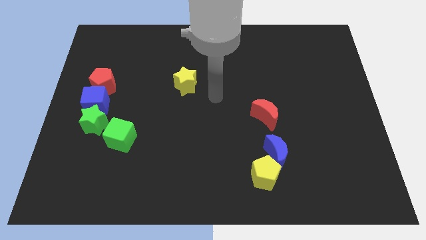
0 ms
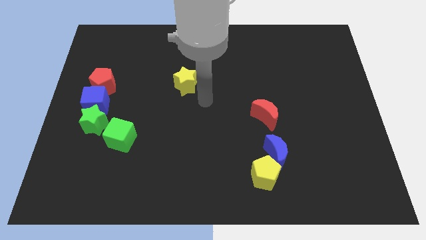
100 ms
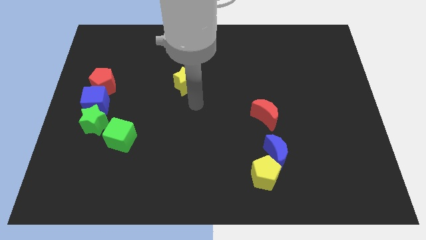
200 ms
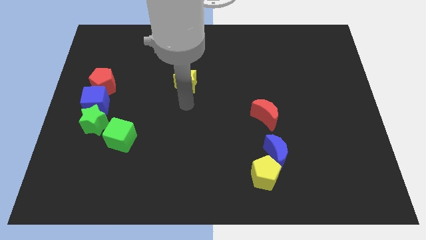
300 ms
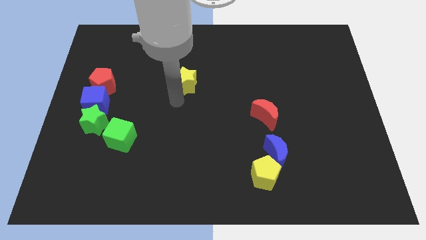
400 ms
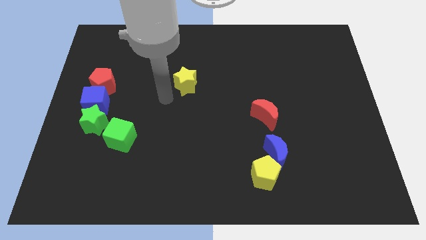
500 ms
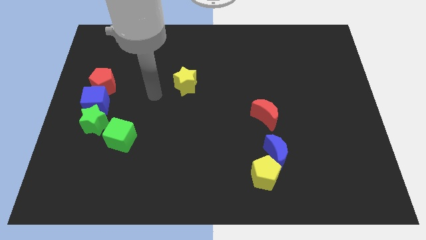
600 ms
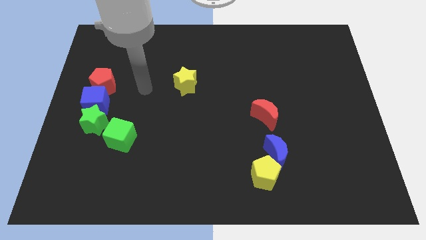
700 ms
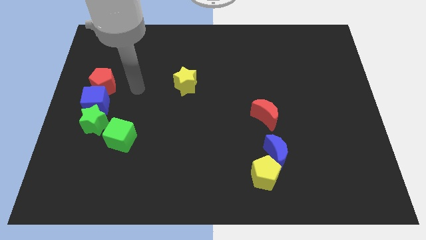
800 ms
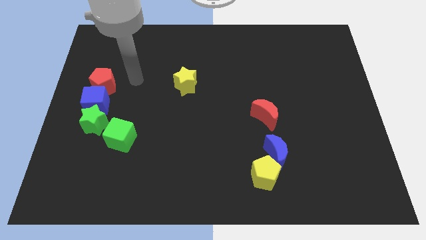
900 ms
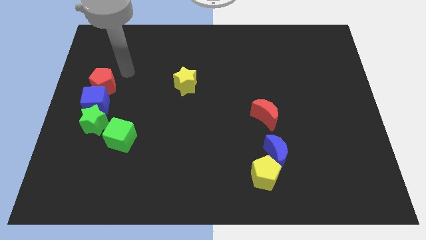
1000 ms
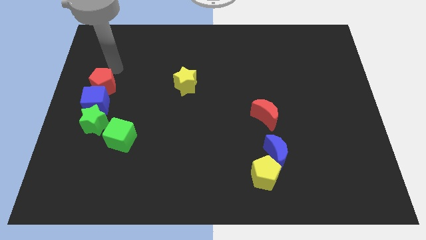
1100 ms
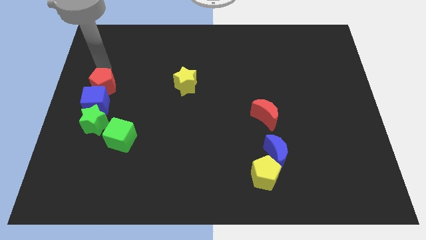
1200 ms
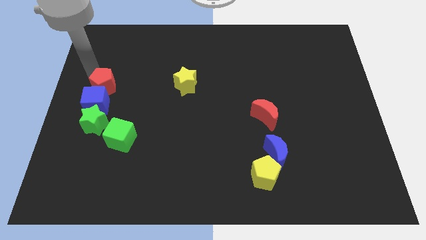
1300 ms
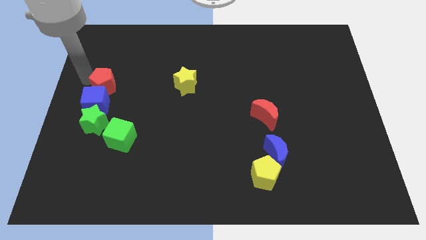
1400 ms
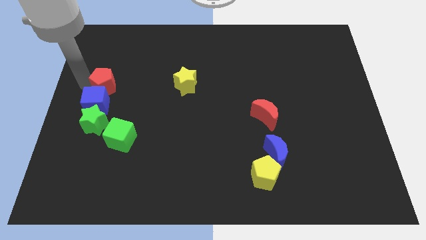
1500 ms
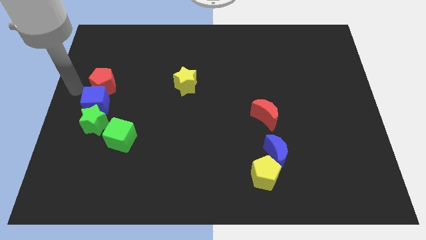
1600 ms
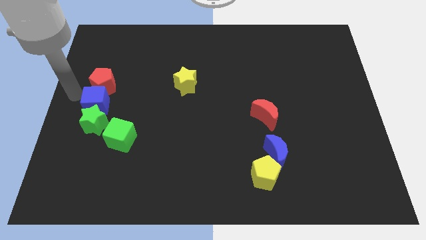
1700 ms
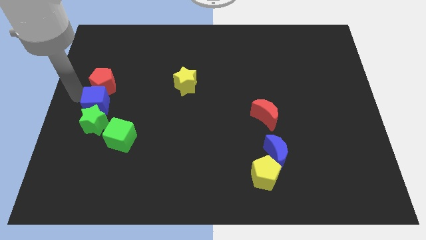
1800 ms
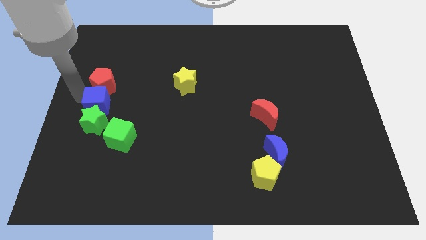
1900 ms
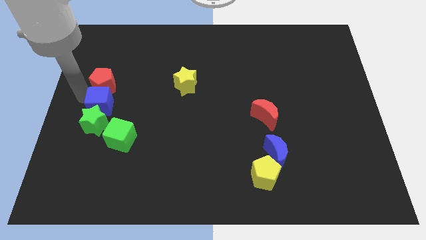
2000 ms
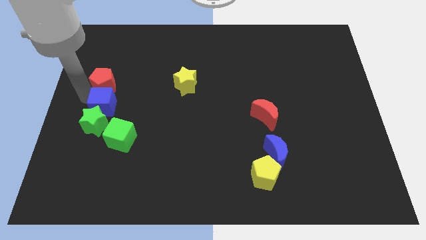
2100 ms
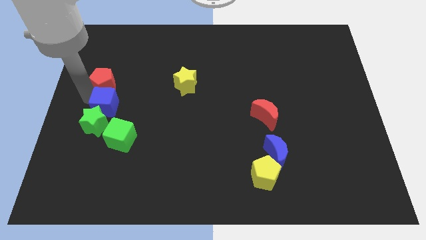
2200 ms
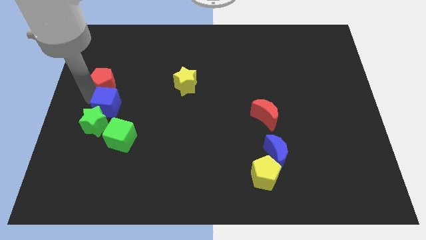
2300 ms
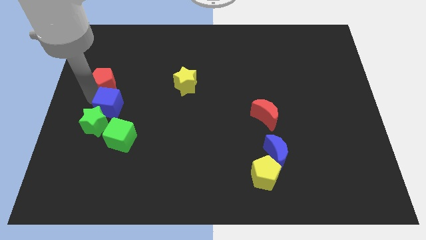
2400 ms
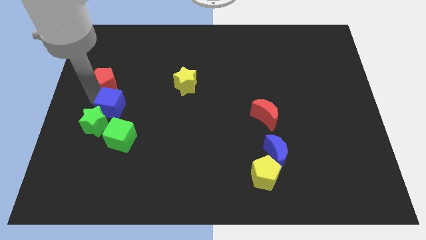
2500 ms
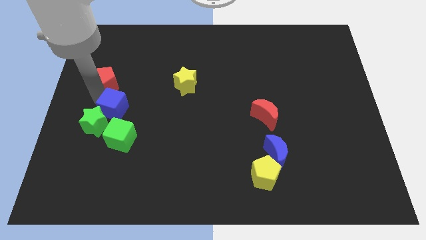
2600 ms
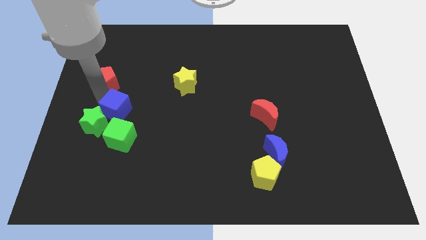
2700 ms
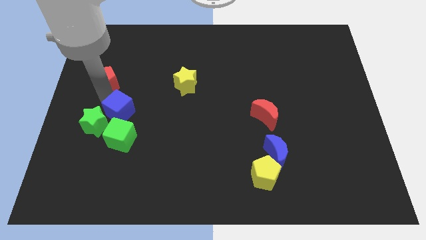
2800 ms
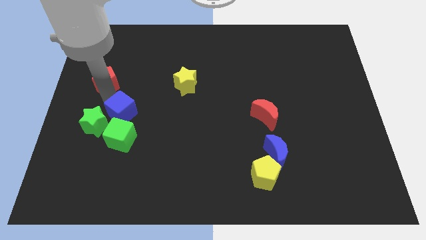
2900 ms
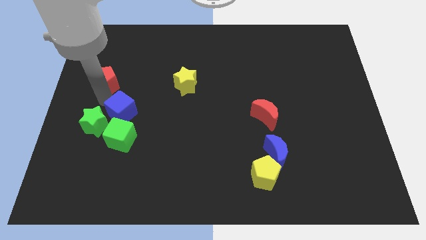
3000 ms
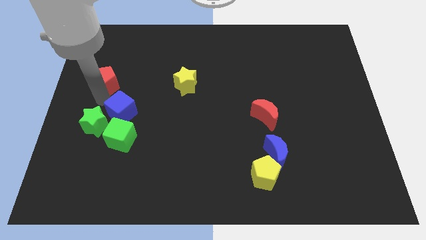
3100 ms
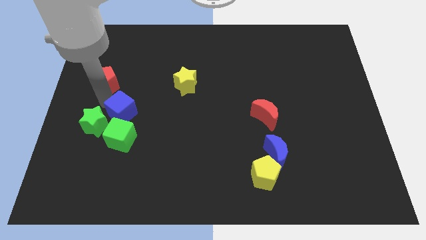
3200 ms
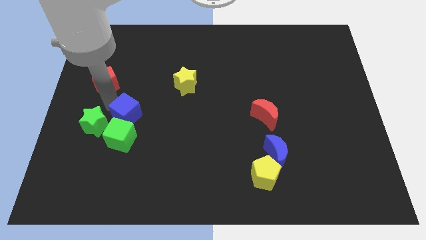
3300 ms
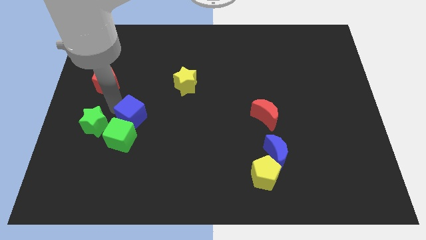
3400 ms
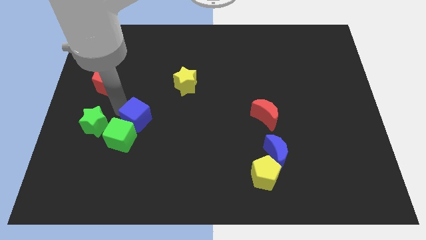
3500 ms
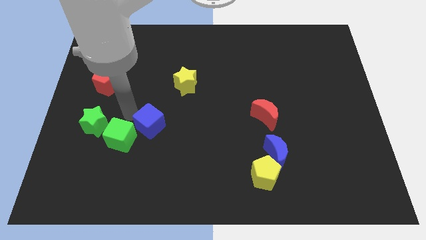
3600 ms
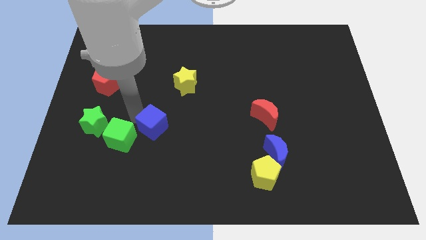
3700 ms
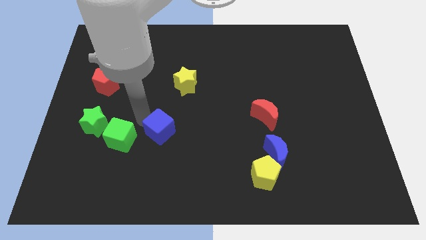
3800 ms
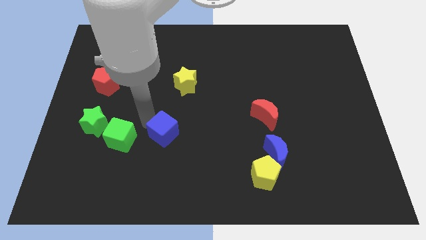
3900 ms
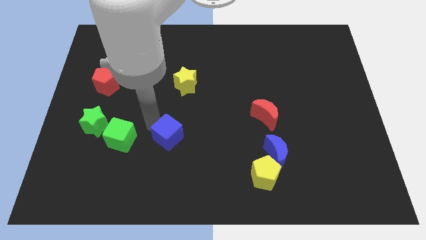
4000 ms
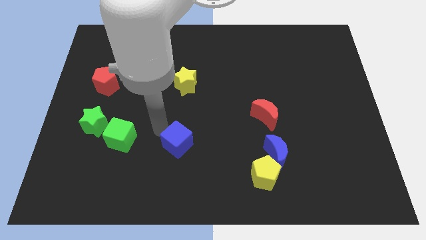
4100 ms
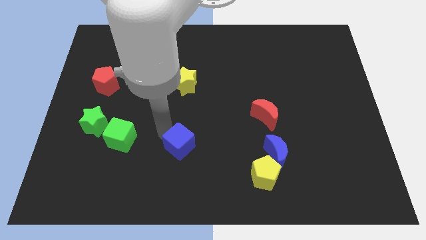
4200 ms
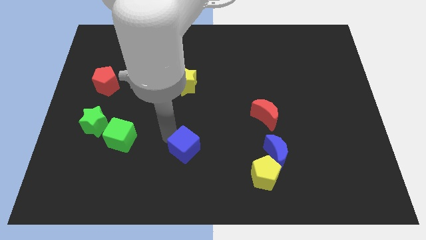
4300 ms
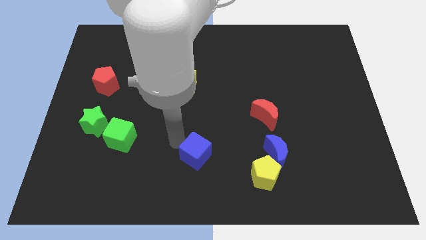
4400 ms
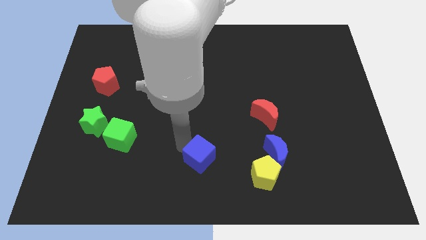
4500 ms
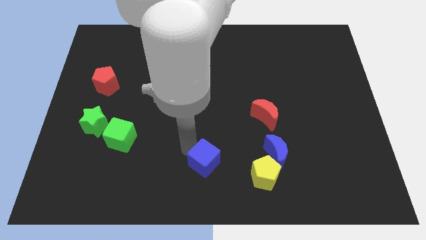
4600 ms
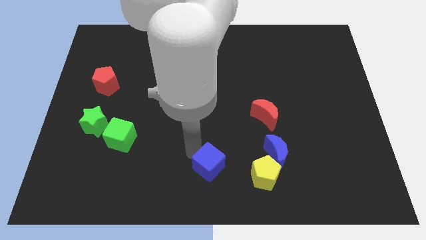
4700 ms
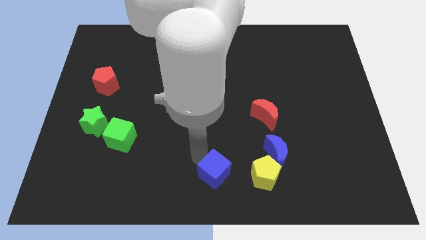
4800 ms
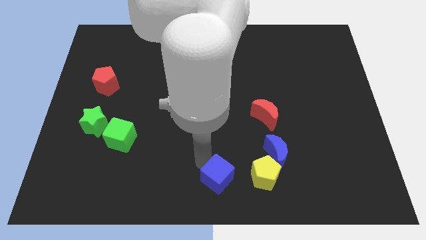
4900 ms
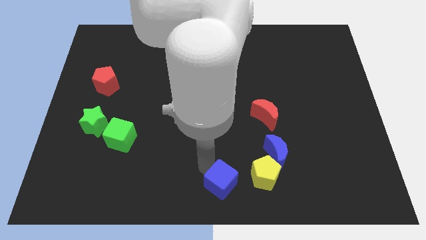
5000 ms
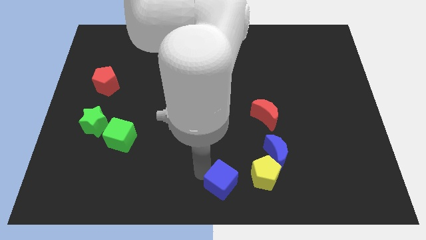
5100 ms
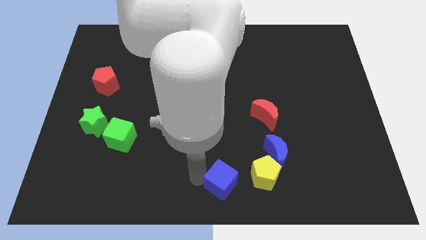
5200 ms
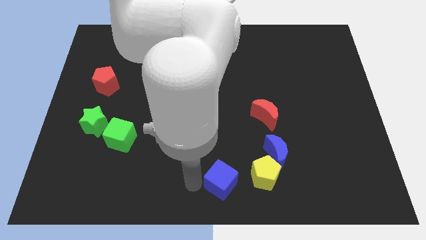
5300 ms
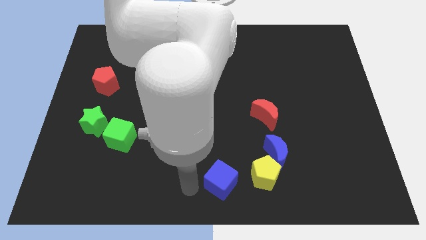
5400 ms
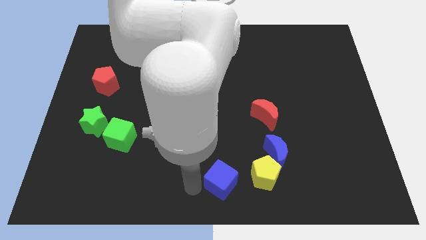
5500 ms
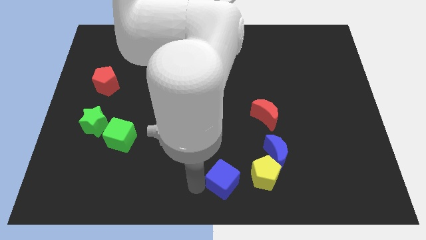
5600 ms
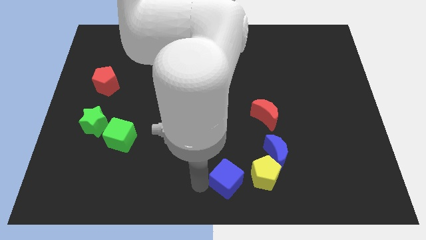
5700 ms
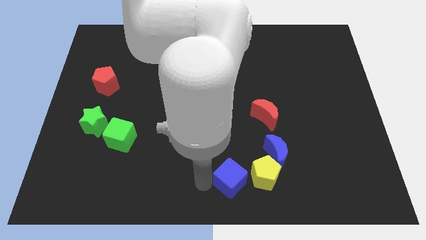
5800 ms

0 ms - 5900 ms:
move the blue cube to the bottom left side of the blue moon

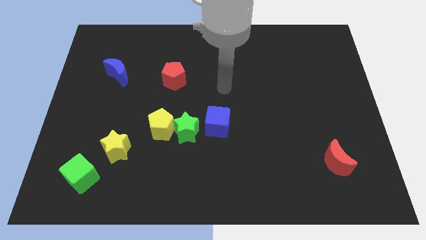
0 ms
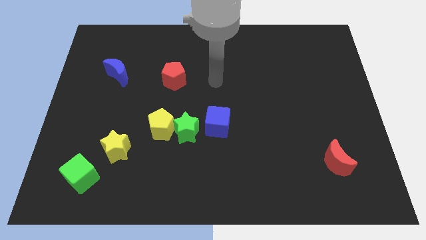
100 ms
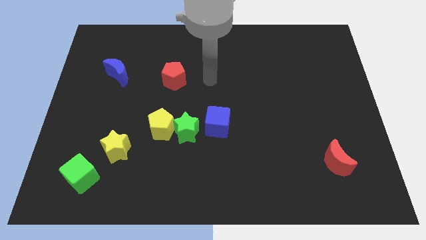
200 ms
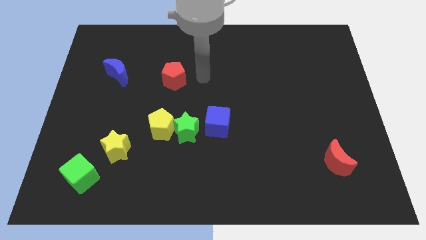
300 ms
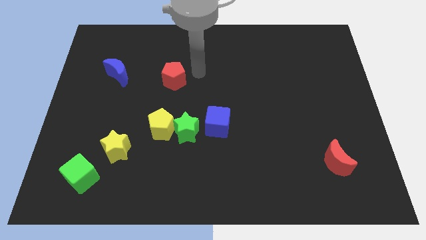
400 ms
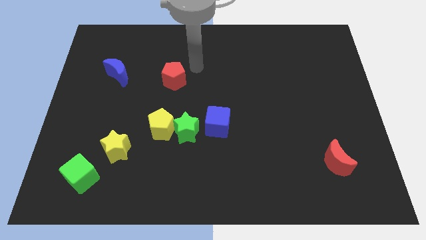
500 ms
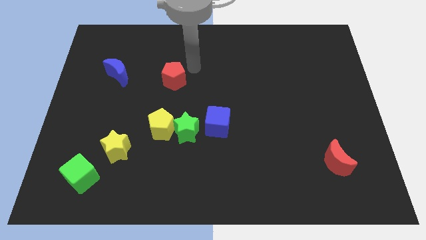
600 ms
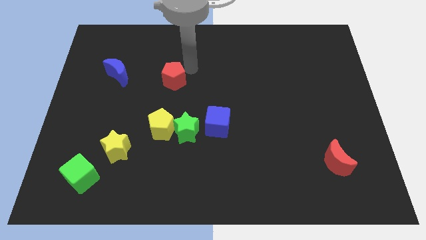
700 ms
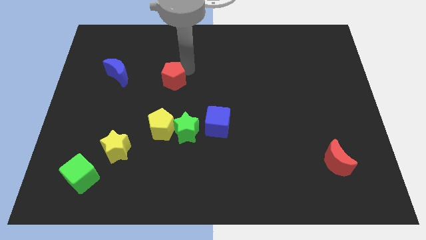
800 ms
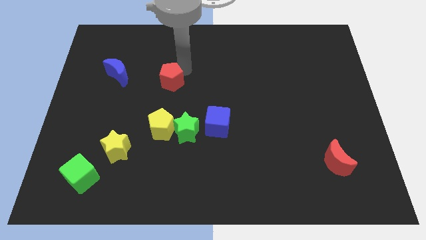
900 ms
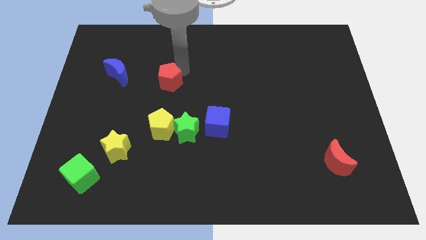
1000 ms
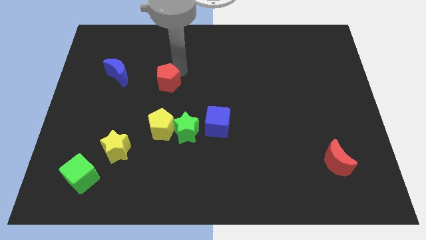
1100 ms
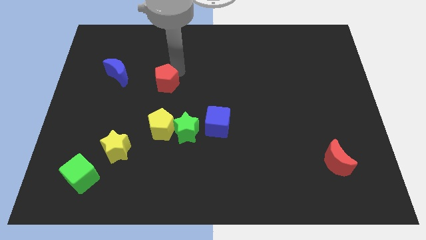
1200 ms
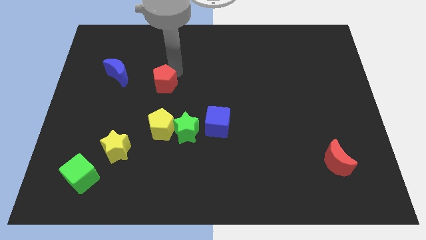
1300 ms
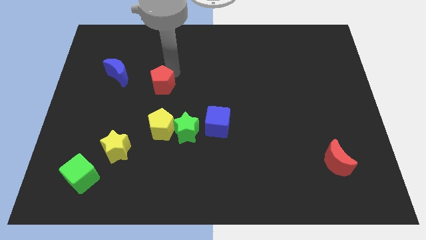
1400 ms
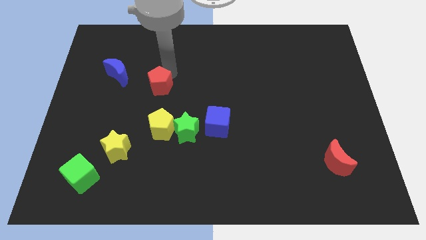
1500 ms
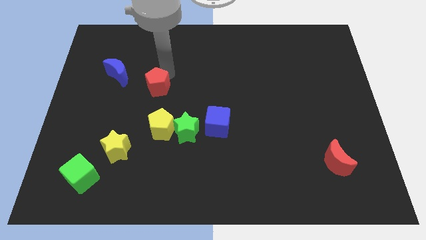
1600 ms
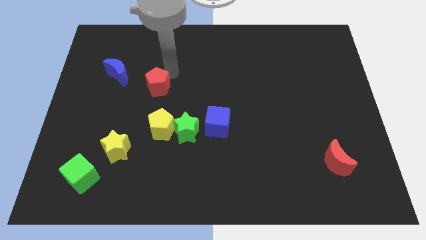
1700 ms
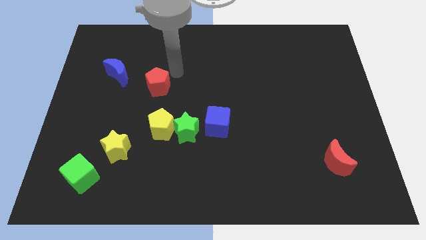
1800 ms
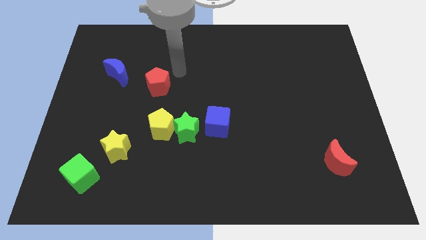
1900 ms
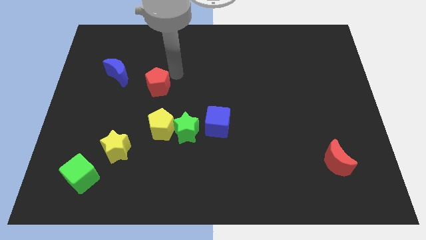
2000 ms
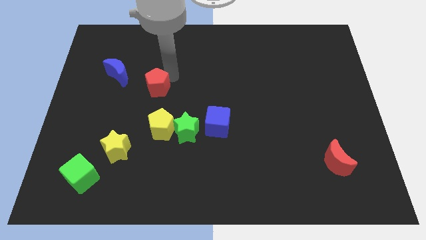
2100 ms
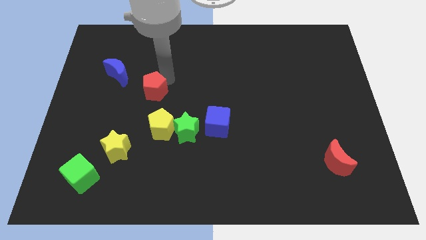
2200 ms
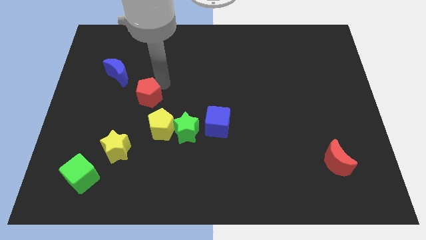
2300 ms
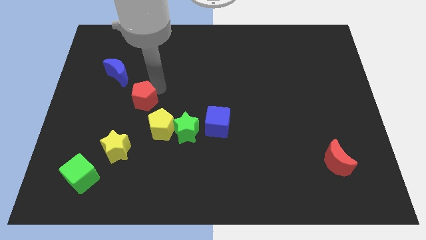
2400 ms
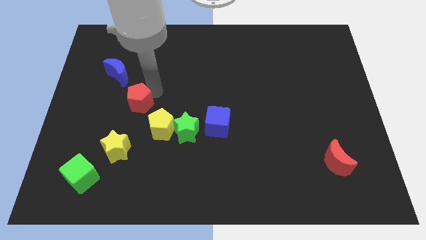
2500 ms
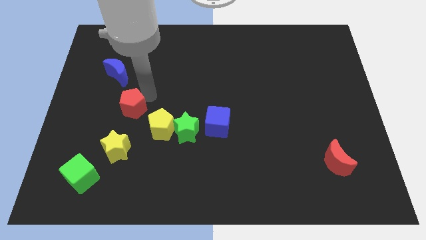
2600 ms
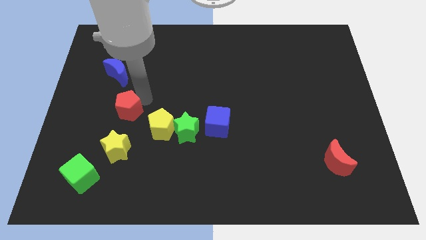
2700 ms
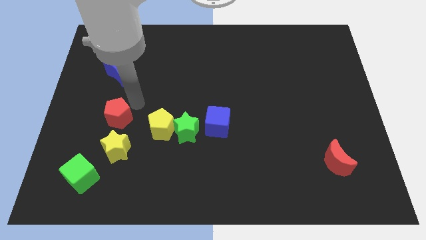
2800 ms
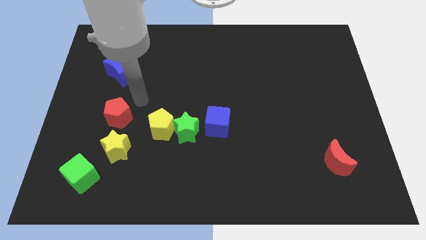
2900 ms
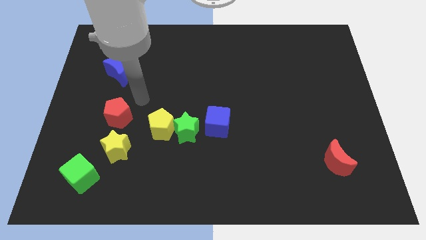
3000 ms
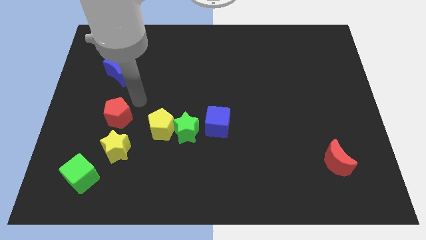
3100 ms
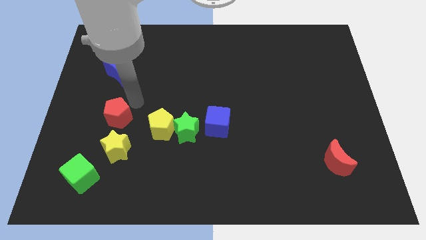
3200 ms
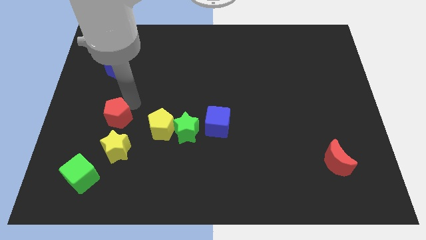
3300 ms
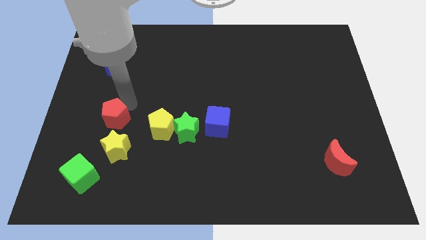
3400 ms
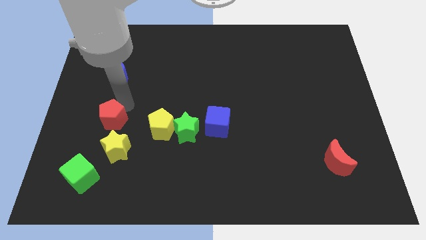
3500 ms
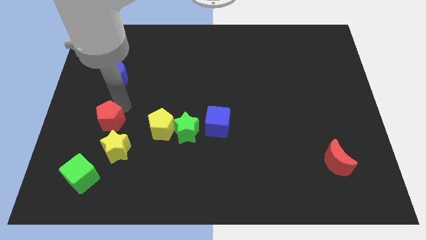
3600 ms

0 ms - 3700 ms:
put the red pentagon to the top side of the green cube
